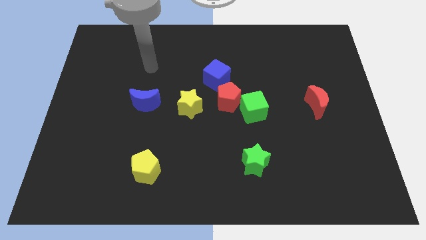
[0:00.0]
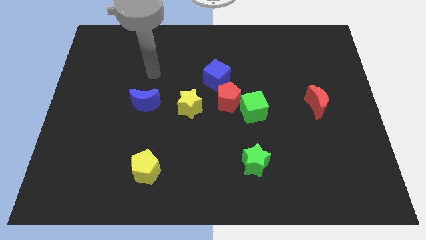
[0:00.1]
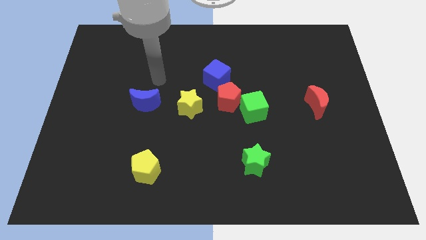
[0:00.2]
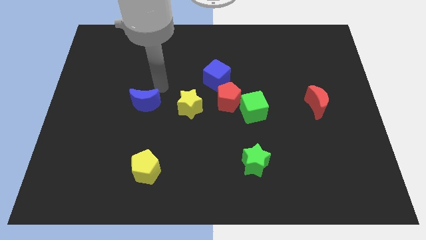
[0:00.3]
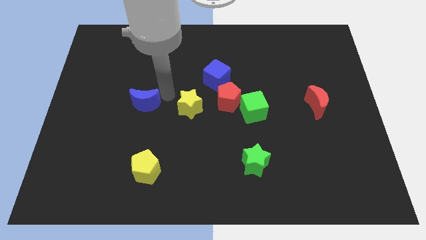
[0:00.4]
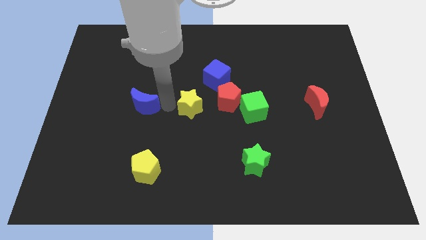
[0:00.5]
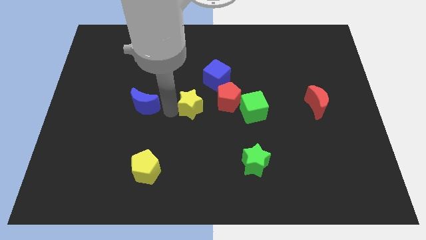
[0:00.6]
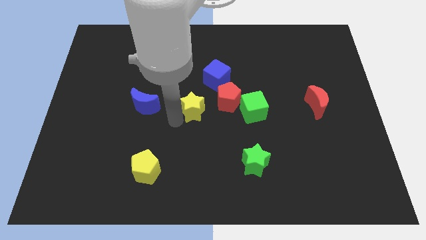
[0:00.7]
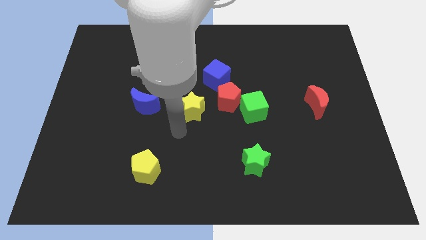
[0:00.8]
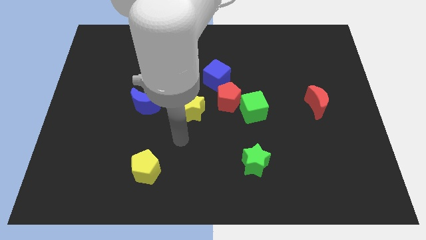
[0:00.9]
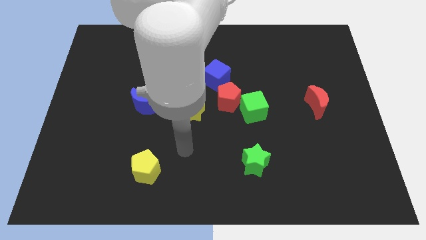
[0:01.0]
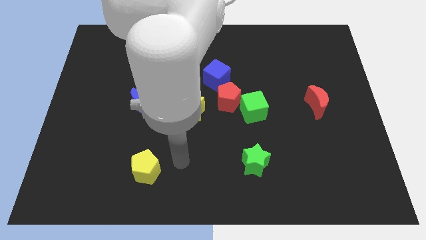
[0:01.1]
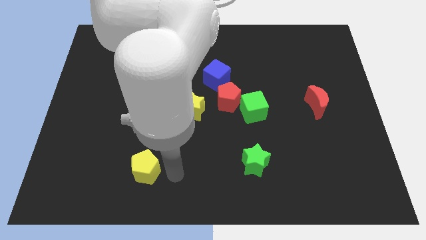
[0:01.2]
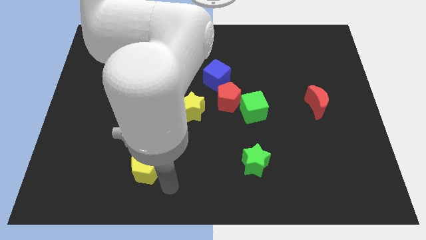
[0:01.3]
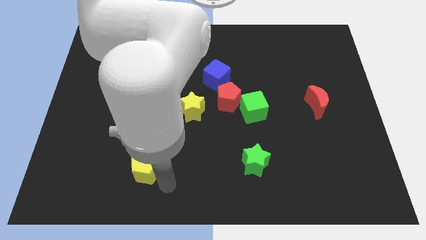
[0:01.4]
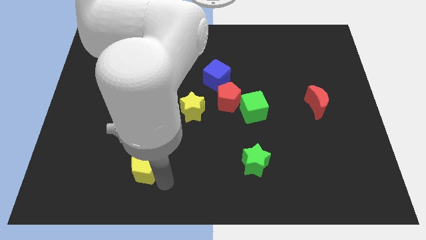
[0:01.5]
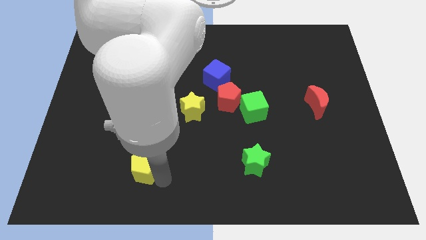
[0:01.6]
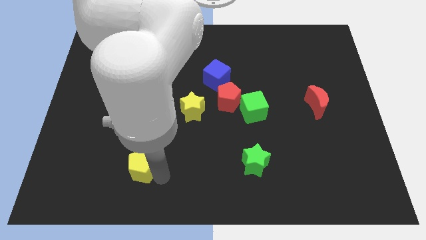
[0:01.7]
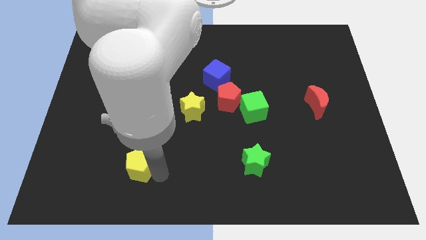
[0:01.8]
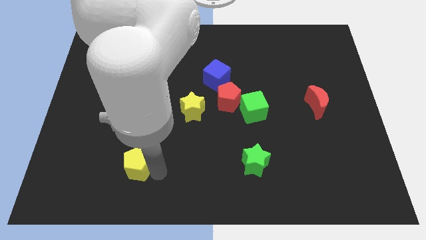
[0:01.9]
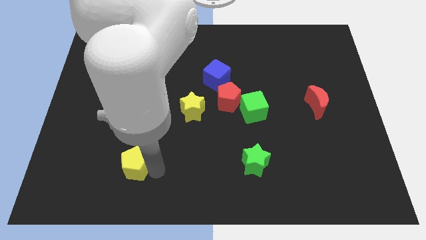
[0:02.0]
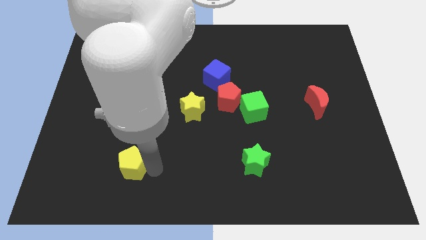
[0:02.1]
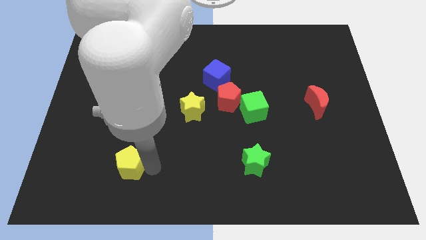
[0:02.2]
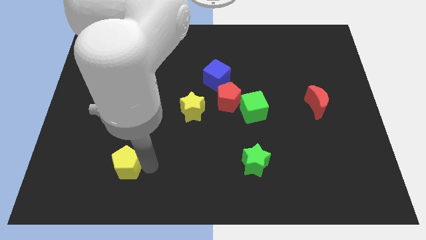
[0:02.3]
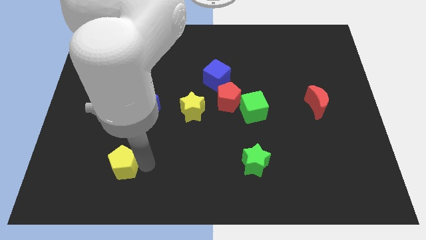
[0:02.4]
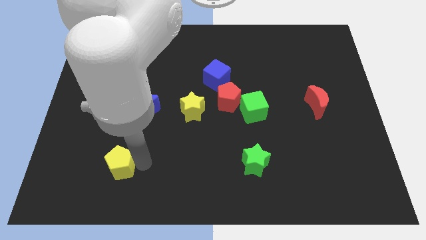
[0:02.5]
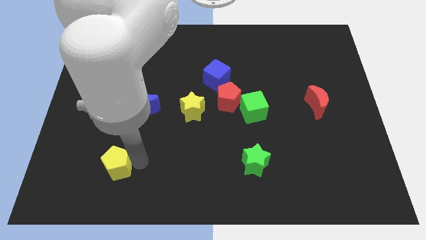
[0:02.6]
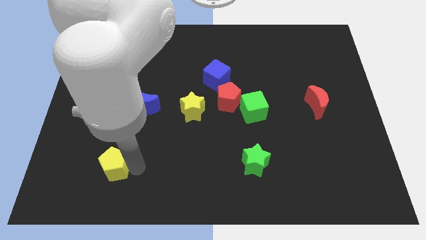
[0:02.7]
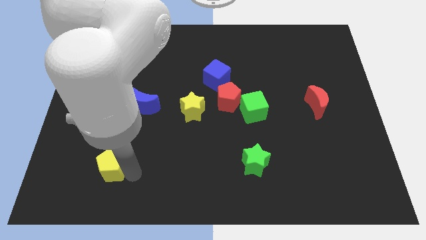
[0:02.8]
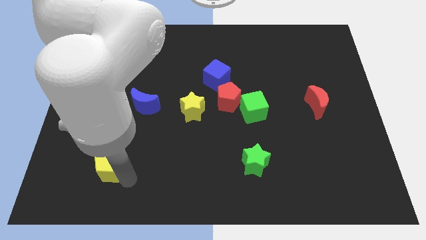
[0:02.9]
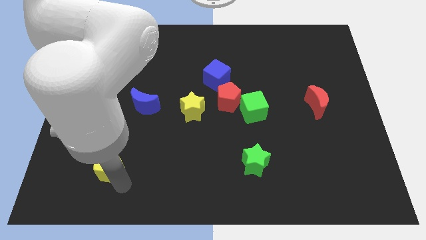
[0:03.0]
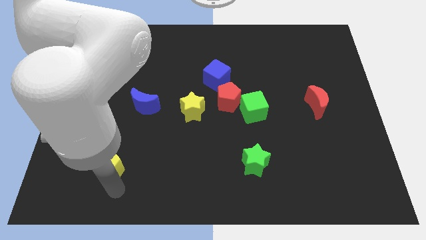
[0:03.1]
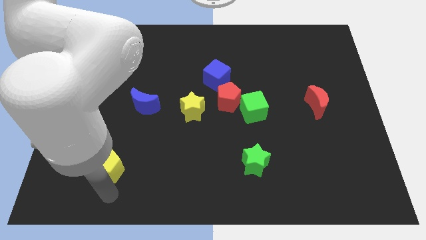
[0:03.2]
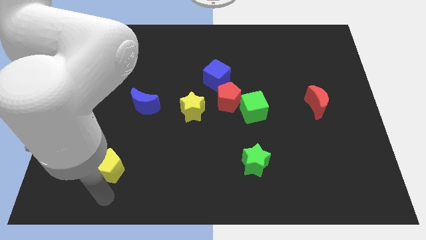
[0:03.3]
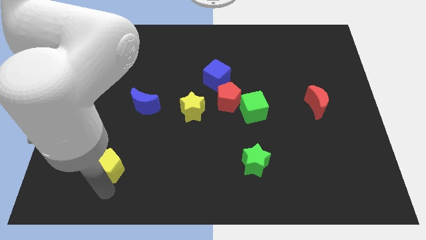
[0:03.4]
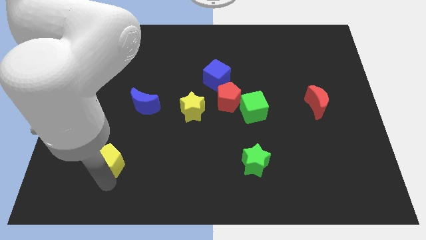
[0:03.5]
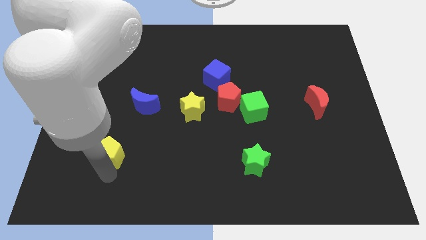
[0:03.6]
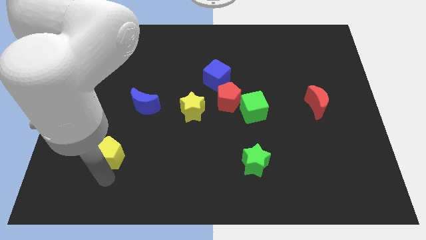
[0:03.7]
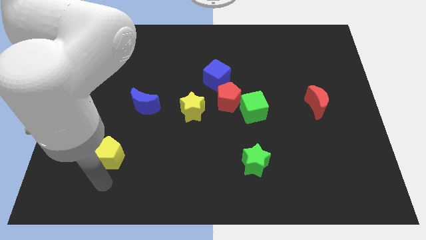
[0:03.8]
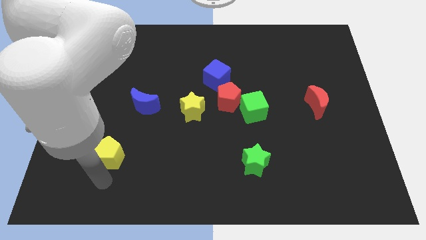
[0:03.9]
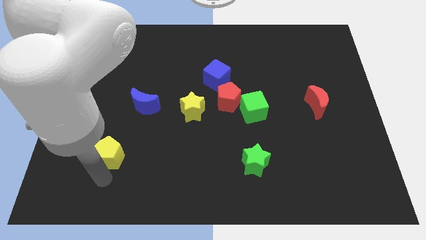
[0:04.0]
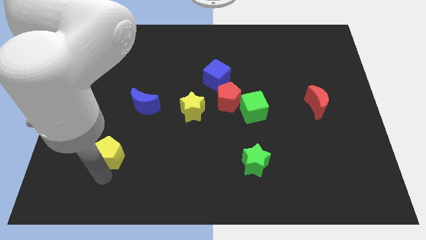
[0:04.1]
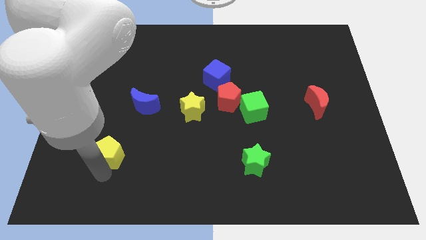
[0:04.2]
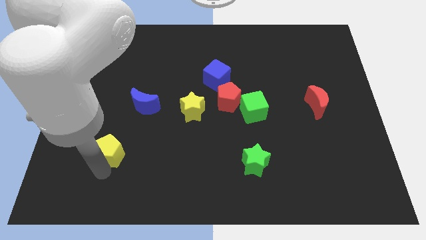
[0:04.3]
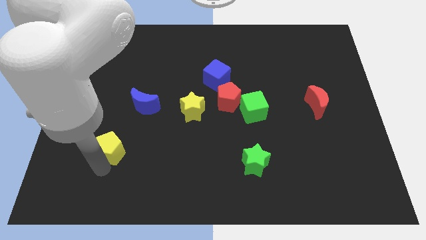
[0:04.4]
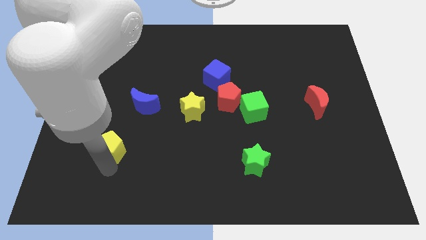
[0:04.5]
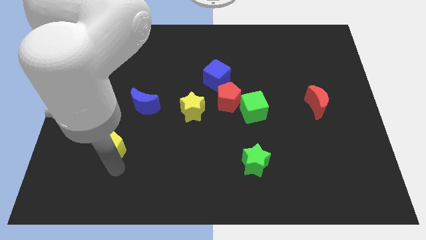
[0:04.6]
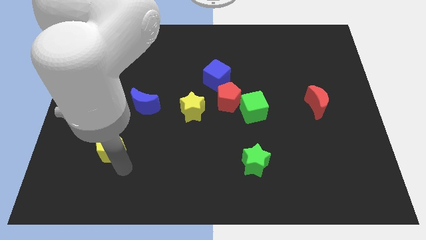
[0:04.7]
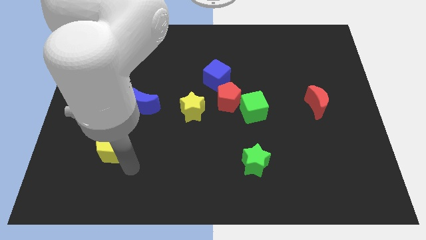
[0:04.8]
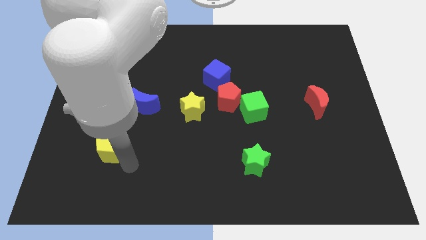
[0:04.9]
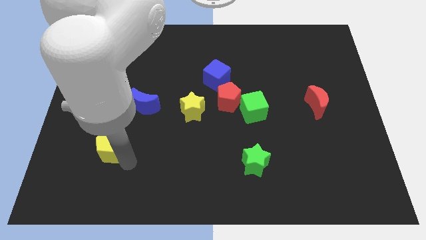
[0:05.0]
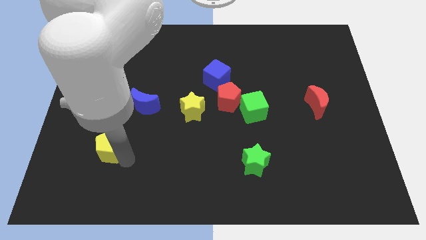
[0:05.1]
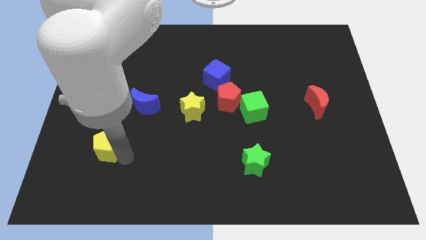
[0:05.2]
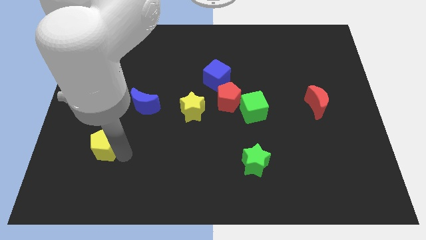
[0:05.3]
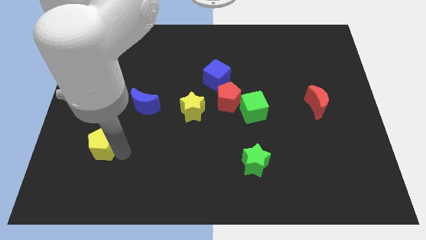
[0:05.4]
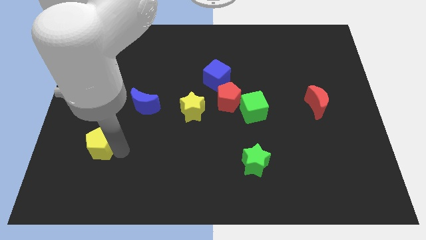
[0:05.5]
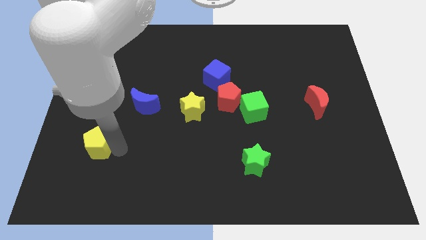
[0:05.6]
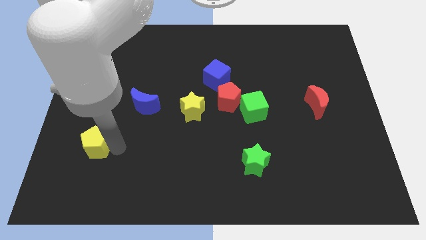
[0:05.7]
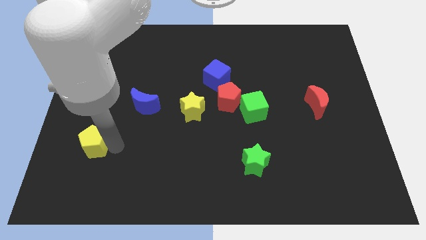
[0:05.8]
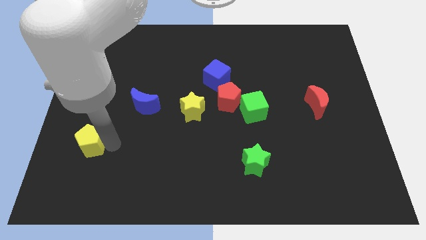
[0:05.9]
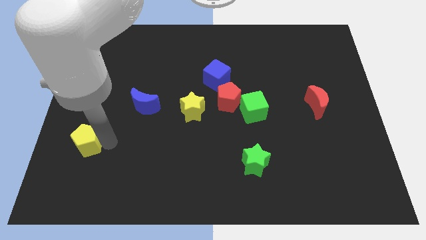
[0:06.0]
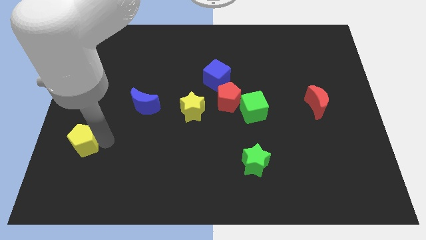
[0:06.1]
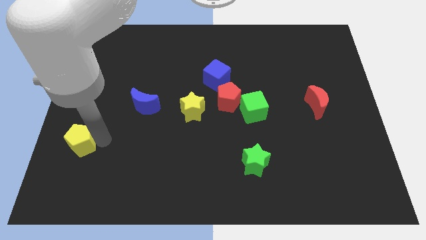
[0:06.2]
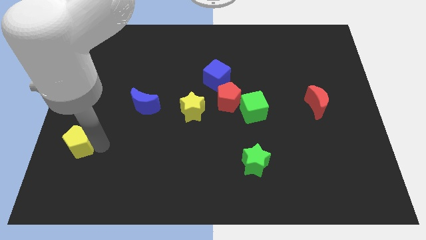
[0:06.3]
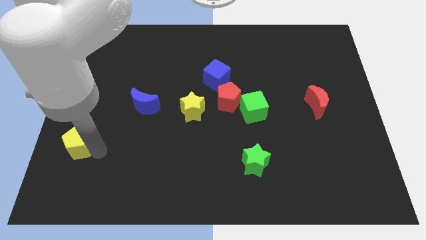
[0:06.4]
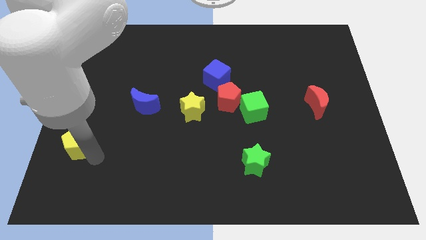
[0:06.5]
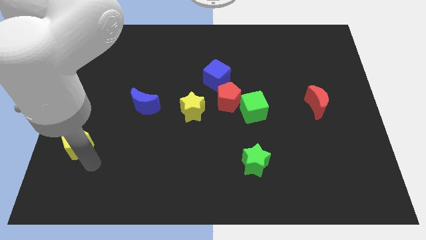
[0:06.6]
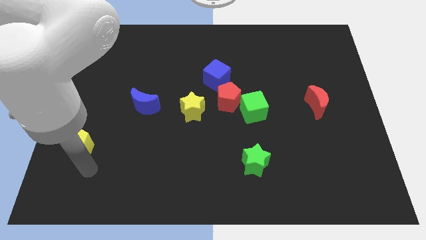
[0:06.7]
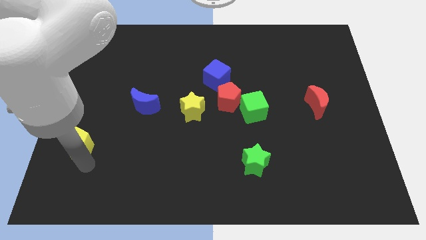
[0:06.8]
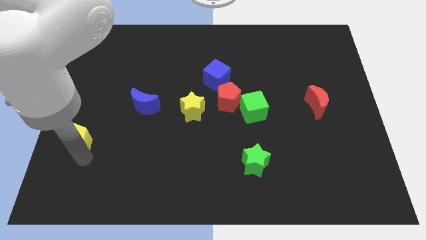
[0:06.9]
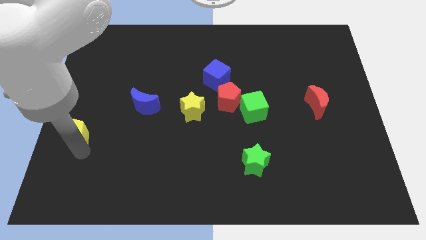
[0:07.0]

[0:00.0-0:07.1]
move the yellow pentagon to the left side of the board
